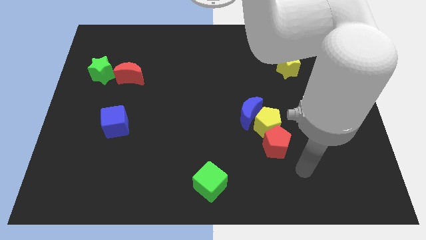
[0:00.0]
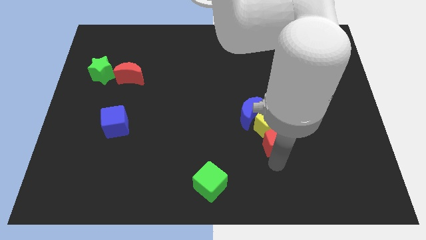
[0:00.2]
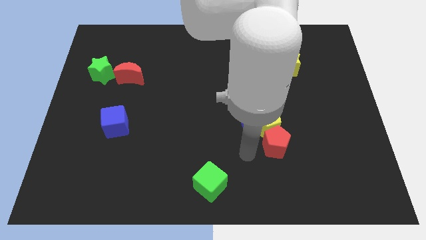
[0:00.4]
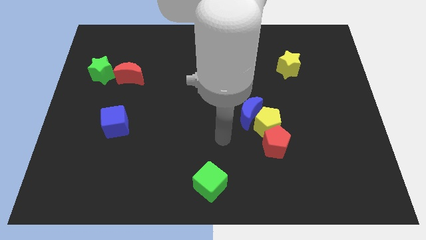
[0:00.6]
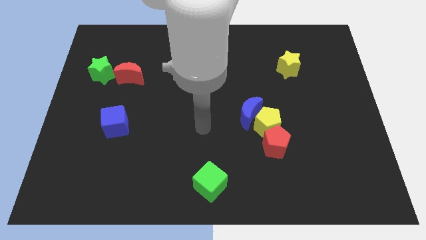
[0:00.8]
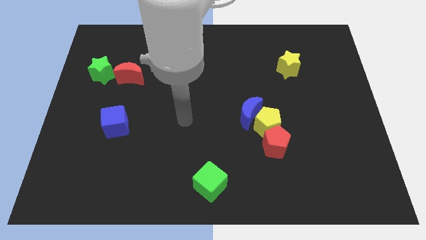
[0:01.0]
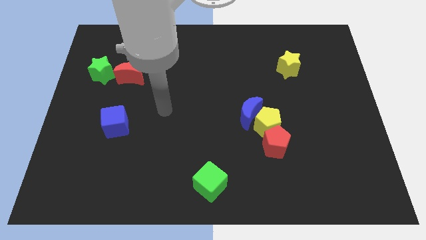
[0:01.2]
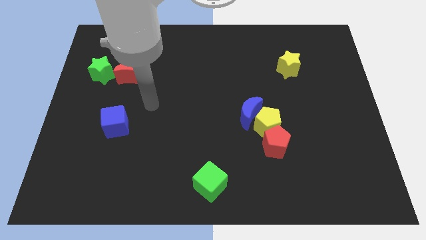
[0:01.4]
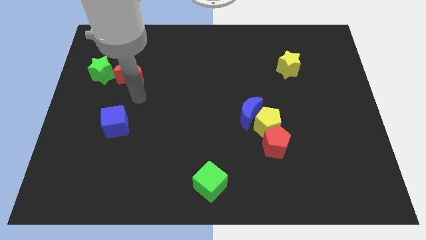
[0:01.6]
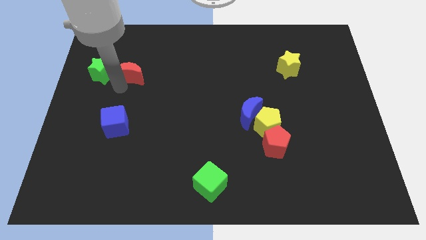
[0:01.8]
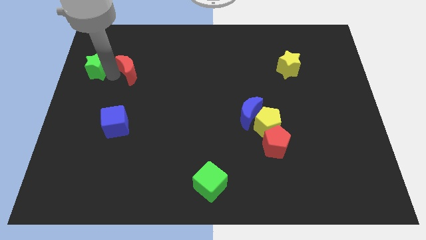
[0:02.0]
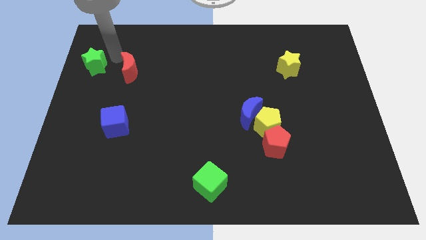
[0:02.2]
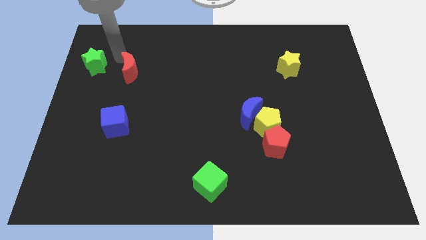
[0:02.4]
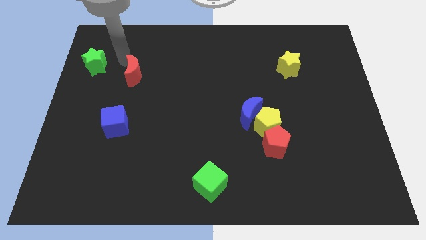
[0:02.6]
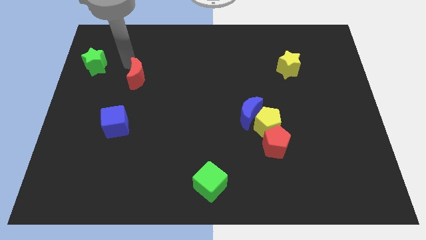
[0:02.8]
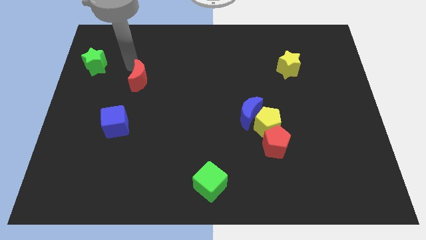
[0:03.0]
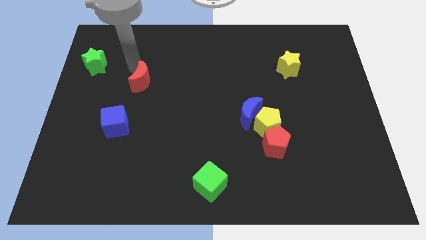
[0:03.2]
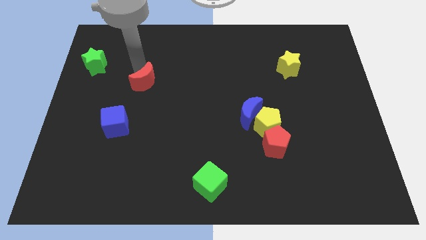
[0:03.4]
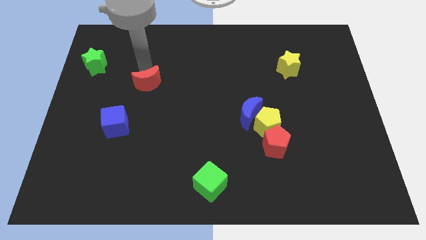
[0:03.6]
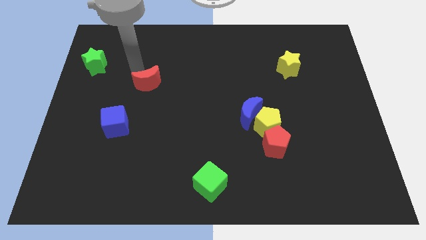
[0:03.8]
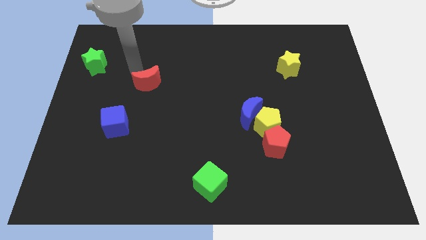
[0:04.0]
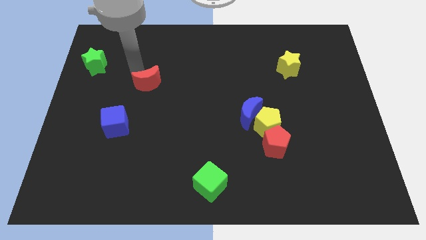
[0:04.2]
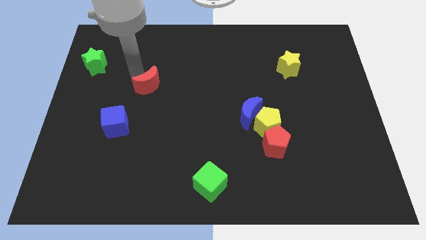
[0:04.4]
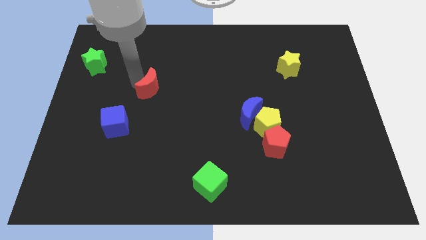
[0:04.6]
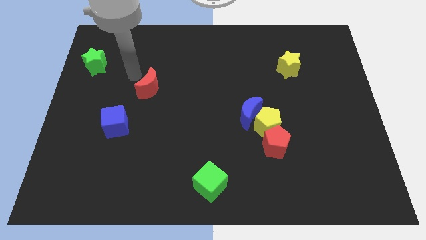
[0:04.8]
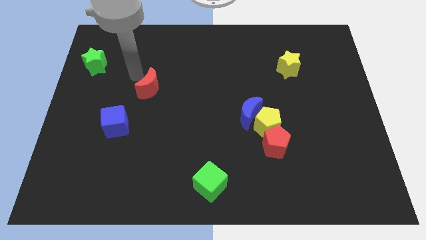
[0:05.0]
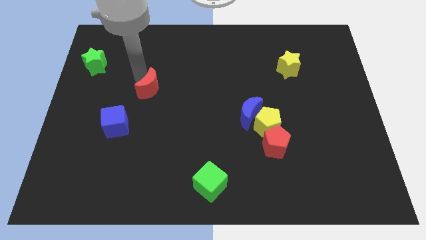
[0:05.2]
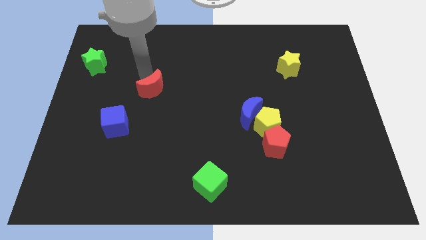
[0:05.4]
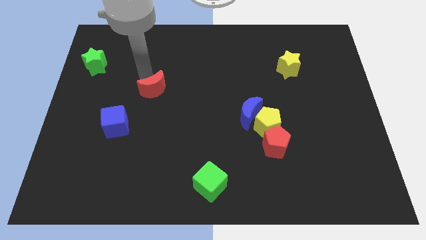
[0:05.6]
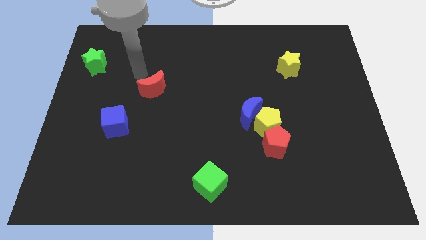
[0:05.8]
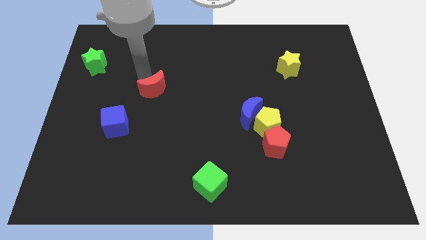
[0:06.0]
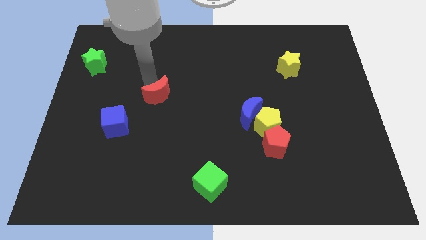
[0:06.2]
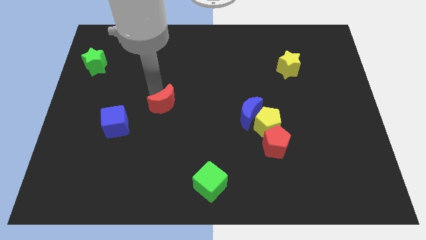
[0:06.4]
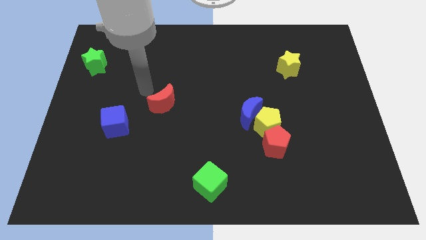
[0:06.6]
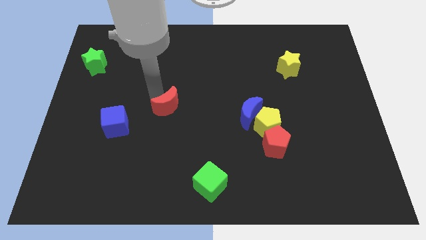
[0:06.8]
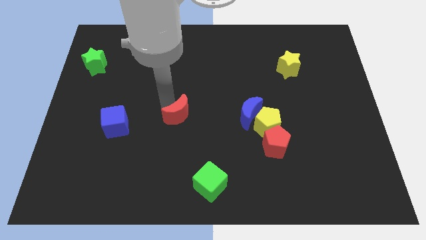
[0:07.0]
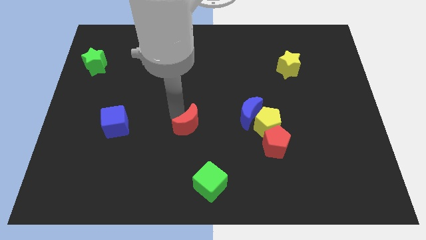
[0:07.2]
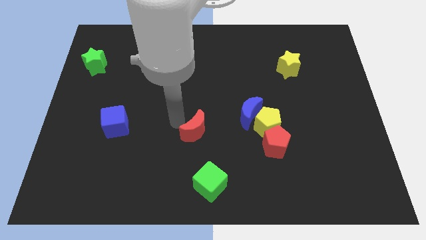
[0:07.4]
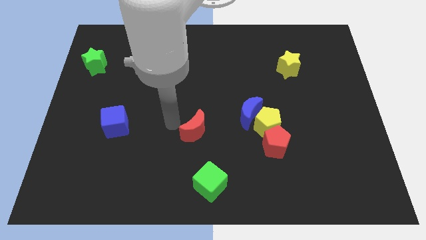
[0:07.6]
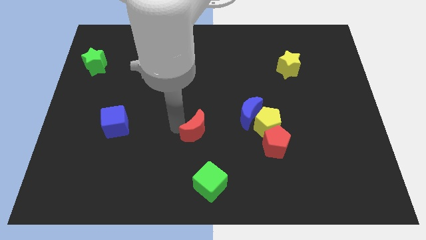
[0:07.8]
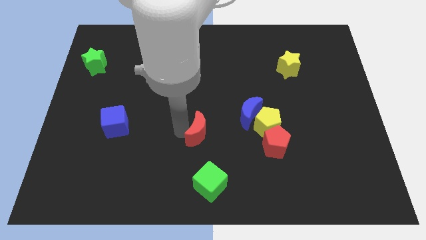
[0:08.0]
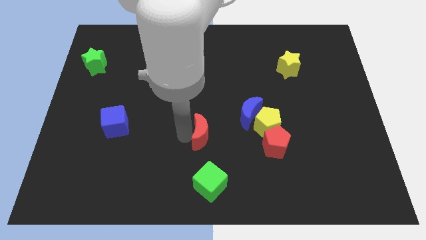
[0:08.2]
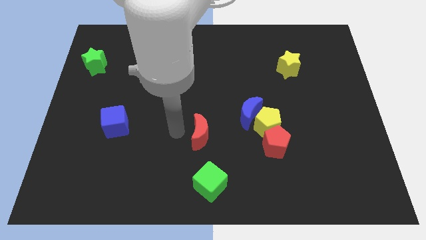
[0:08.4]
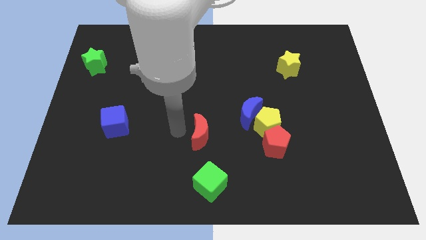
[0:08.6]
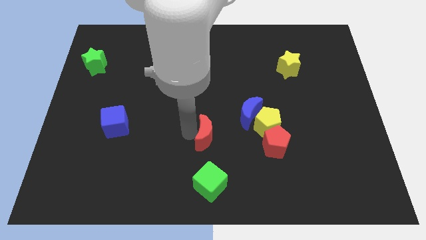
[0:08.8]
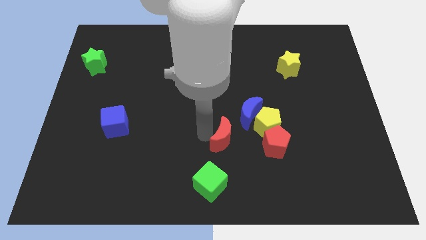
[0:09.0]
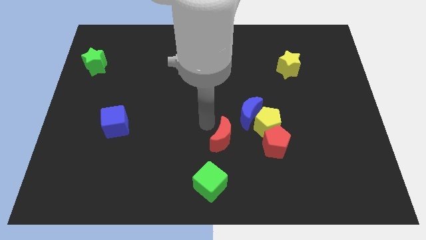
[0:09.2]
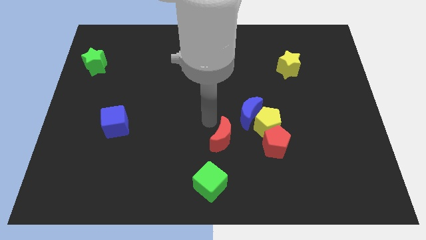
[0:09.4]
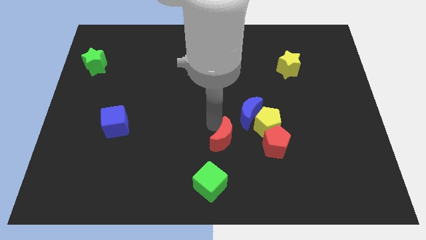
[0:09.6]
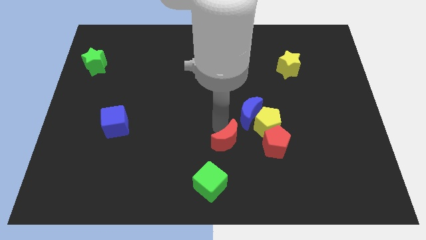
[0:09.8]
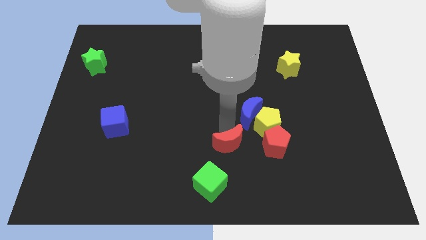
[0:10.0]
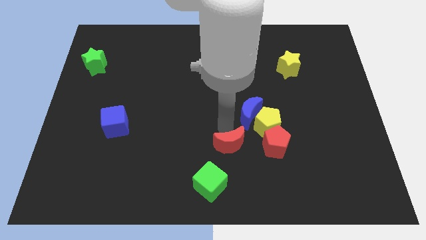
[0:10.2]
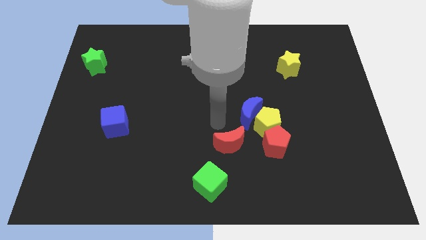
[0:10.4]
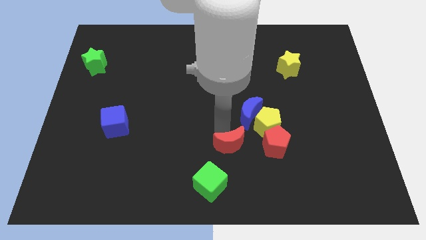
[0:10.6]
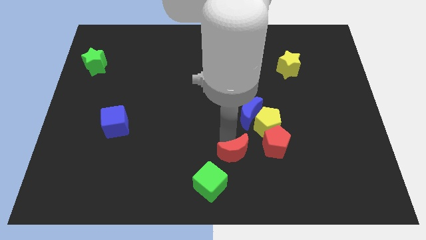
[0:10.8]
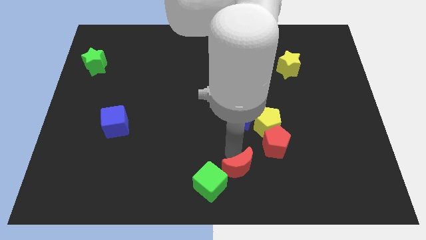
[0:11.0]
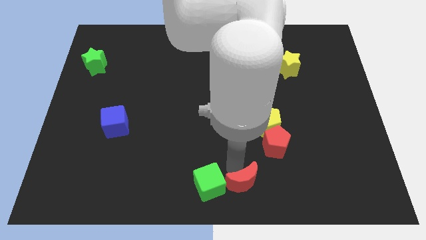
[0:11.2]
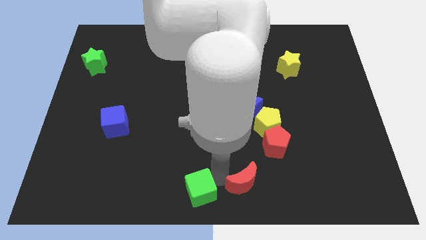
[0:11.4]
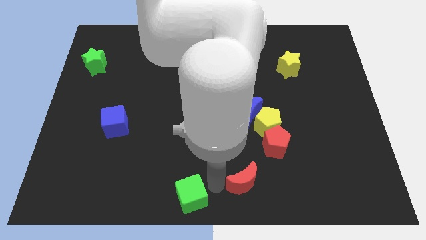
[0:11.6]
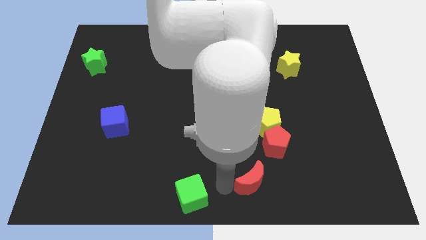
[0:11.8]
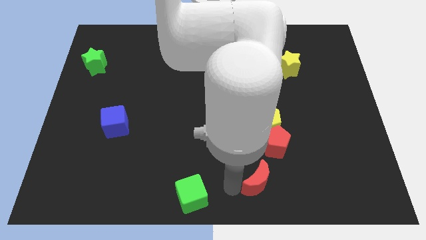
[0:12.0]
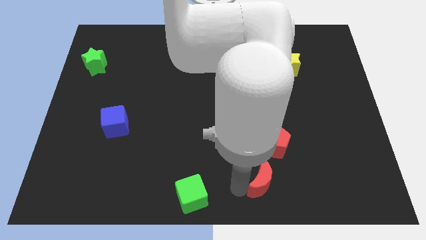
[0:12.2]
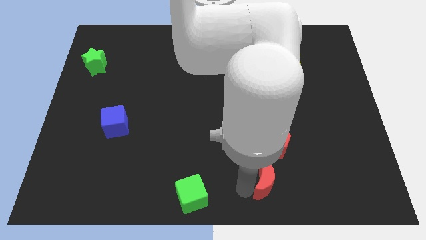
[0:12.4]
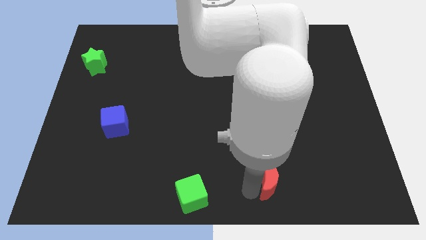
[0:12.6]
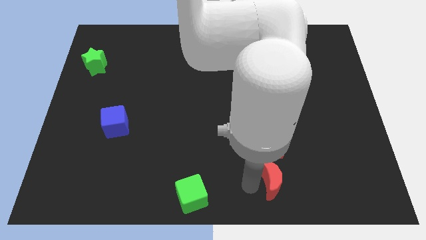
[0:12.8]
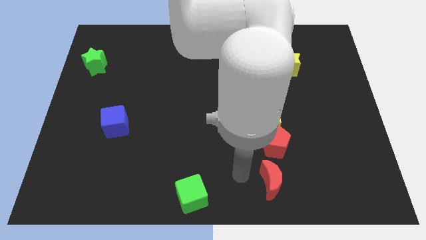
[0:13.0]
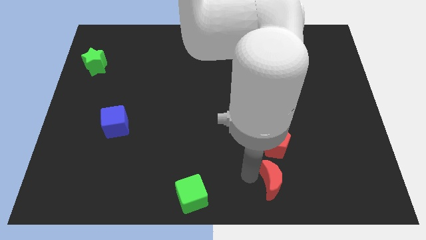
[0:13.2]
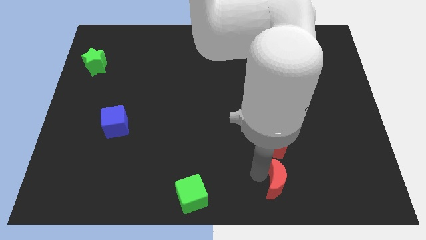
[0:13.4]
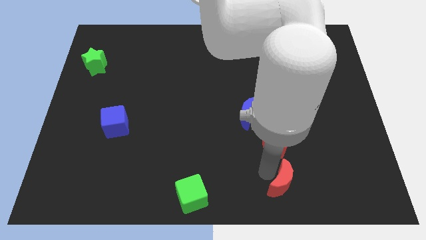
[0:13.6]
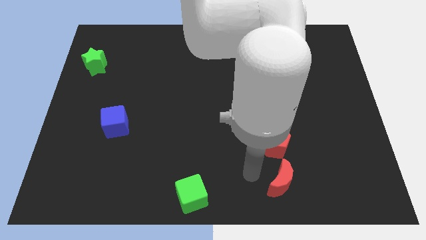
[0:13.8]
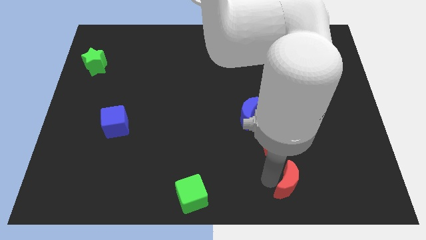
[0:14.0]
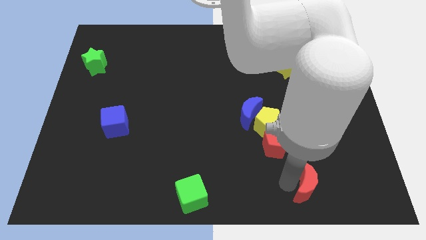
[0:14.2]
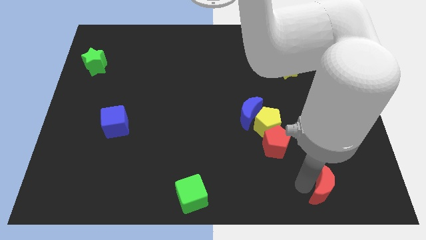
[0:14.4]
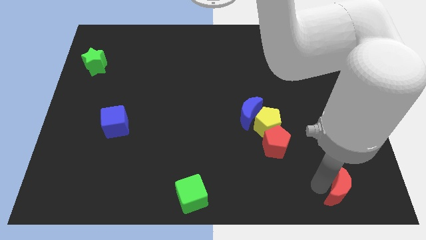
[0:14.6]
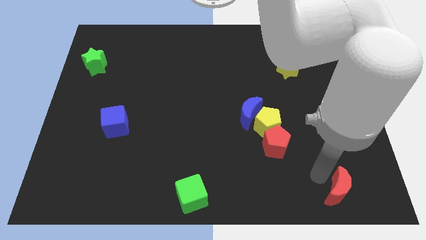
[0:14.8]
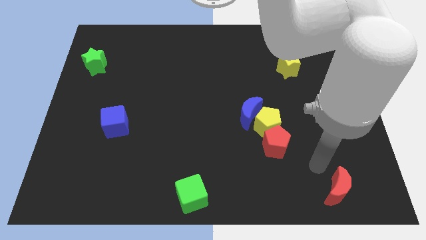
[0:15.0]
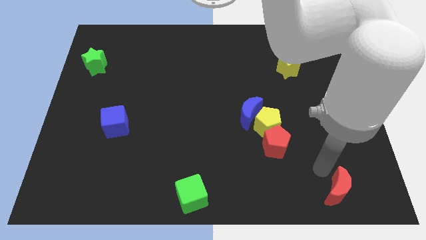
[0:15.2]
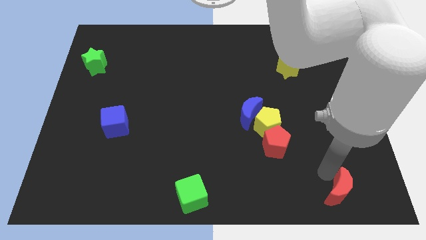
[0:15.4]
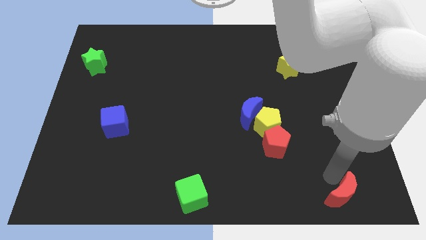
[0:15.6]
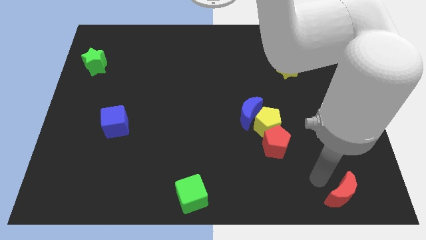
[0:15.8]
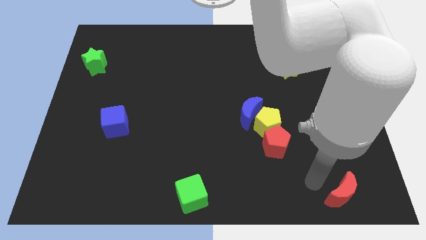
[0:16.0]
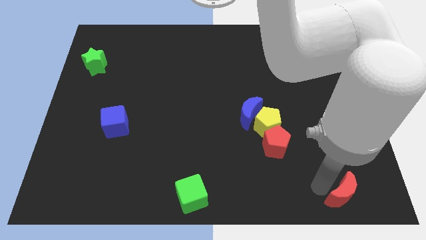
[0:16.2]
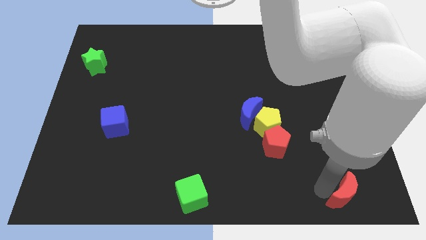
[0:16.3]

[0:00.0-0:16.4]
slide the red moon to the lower right corner
